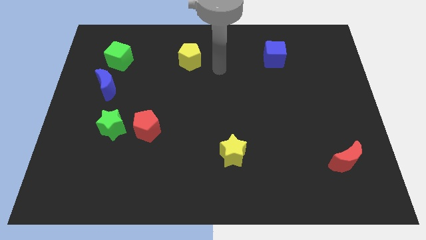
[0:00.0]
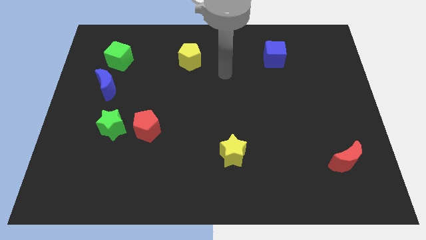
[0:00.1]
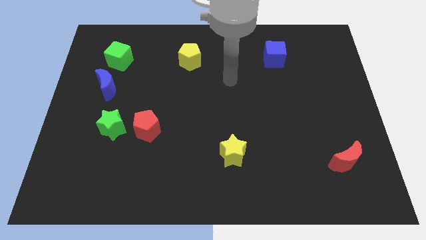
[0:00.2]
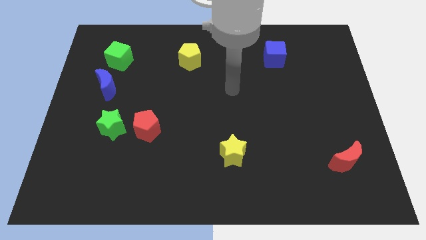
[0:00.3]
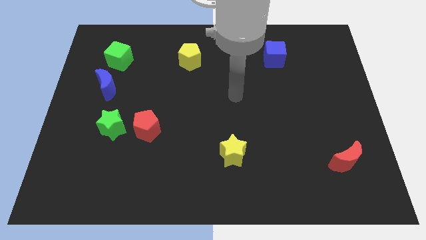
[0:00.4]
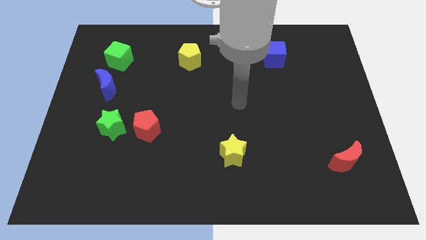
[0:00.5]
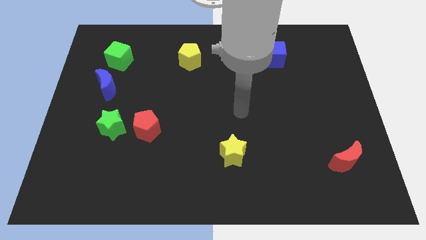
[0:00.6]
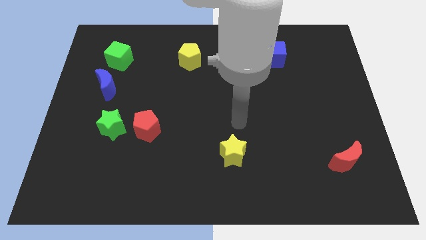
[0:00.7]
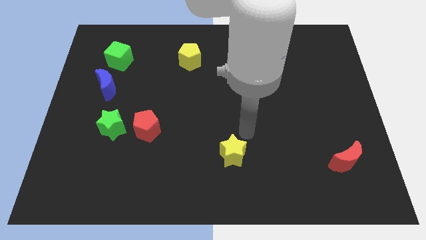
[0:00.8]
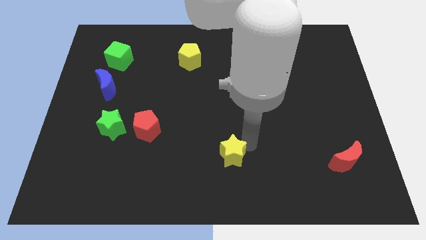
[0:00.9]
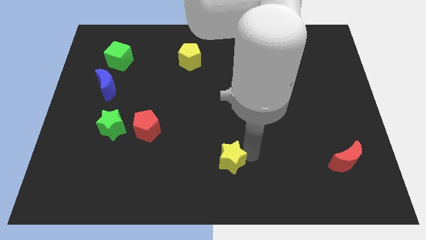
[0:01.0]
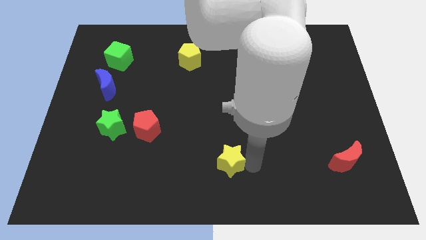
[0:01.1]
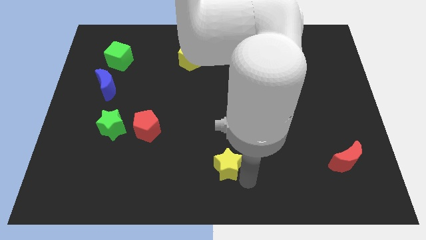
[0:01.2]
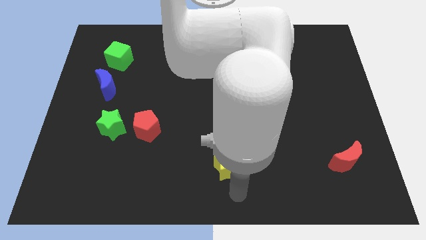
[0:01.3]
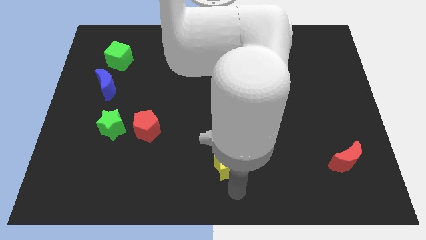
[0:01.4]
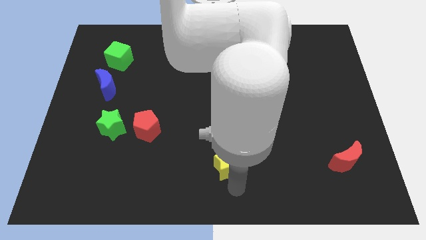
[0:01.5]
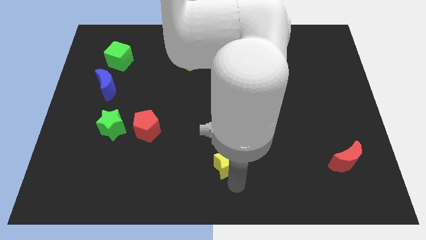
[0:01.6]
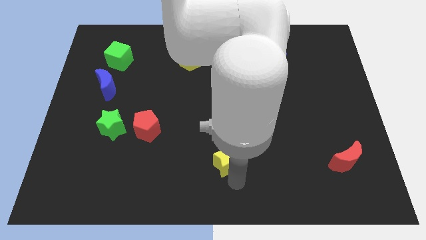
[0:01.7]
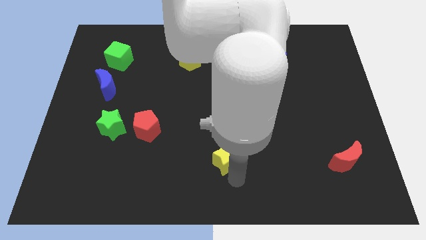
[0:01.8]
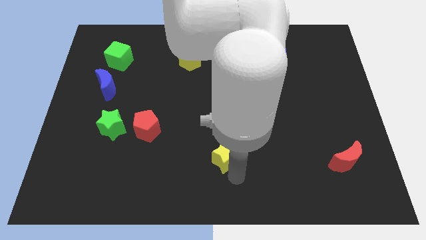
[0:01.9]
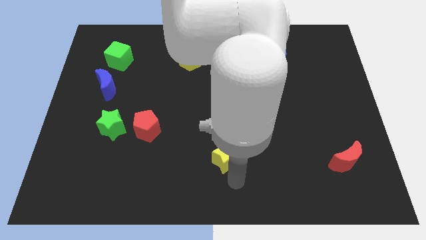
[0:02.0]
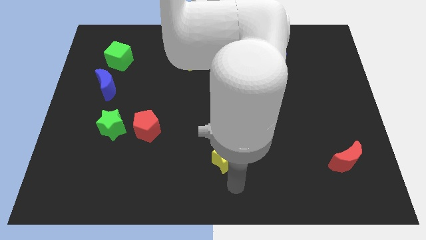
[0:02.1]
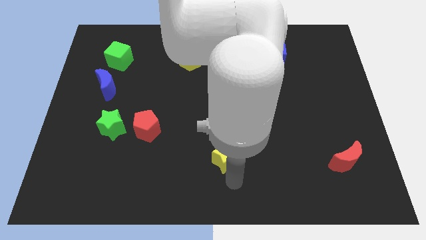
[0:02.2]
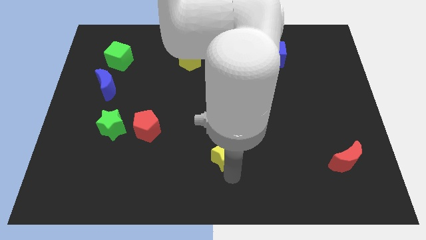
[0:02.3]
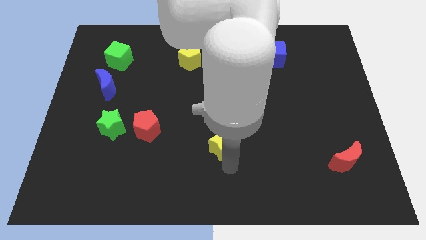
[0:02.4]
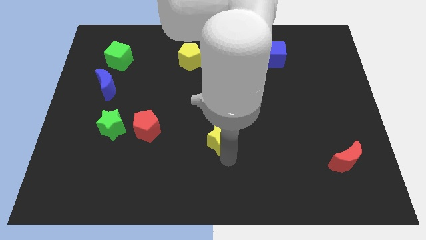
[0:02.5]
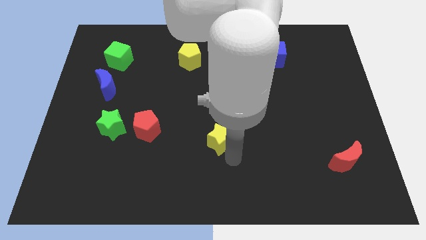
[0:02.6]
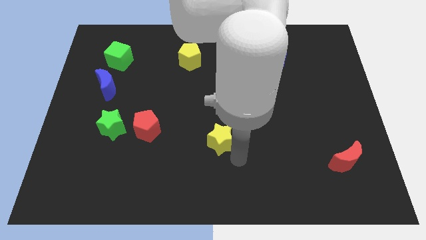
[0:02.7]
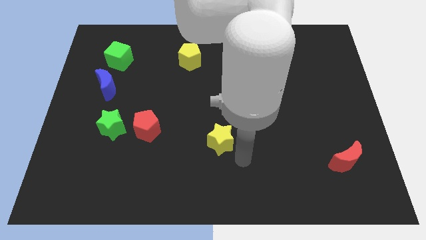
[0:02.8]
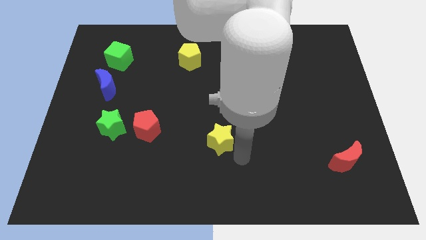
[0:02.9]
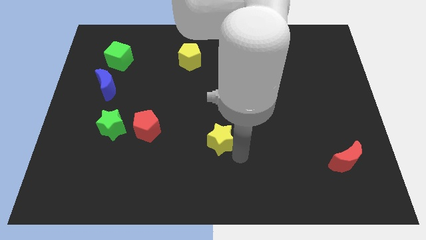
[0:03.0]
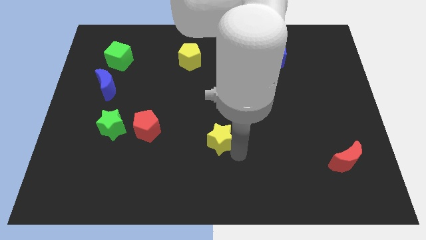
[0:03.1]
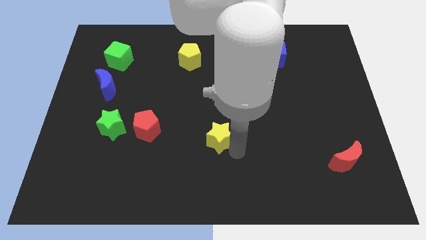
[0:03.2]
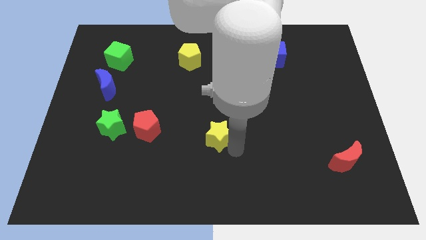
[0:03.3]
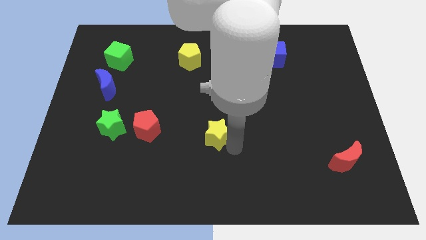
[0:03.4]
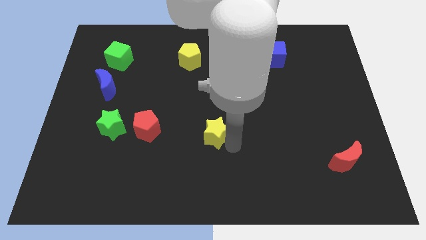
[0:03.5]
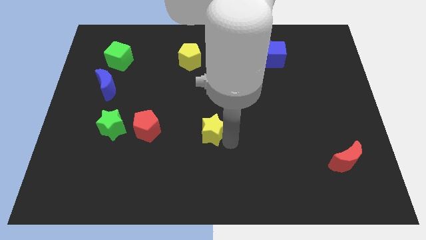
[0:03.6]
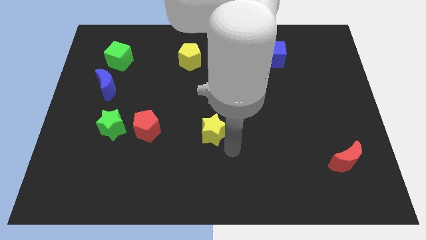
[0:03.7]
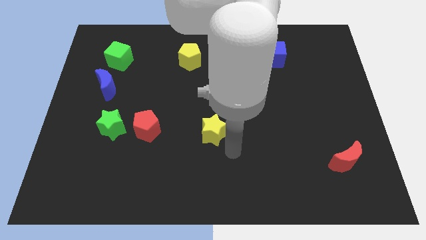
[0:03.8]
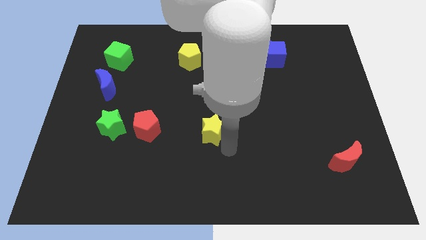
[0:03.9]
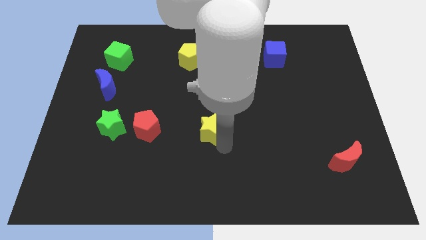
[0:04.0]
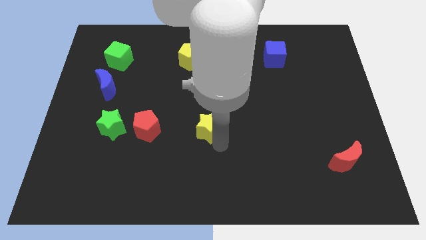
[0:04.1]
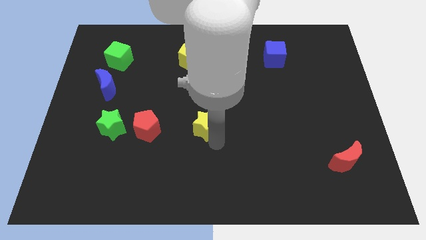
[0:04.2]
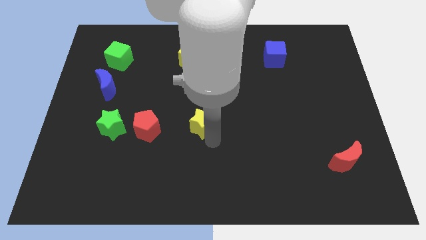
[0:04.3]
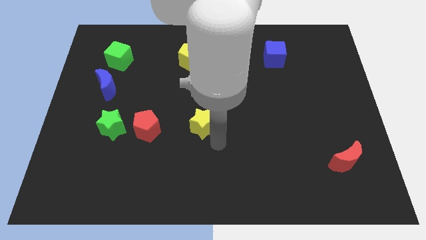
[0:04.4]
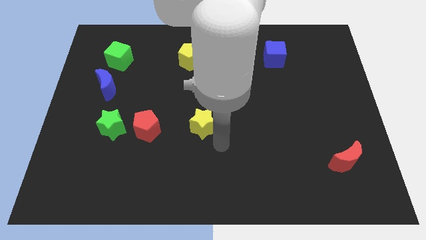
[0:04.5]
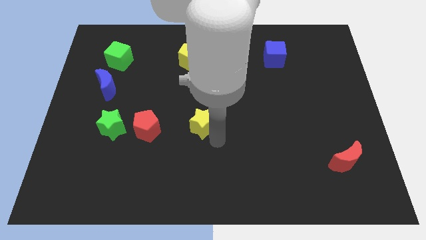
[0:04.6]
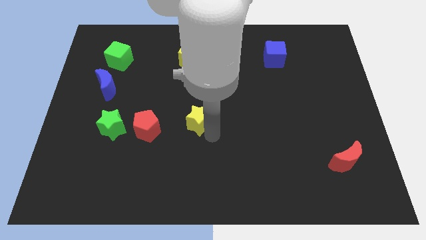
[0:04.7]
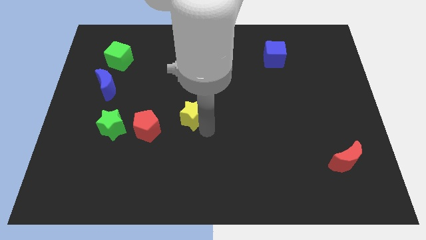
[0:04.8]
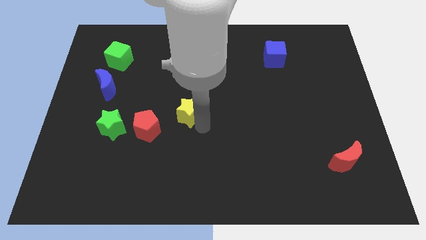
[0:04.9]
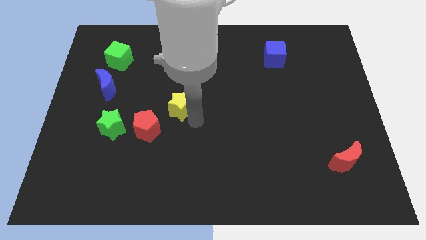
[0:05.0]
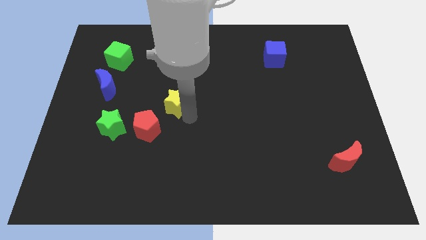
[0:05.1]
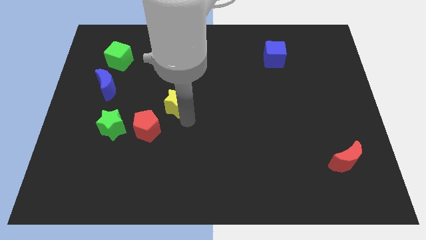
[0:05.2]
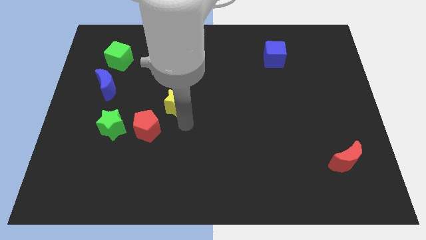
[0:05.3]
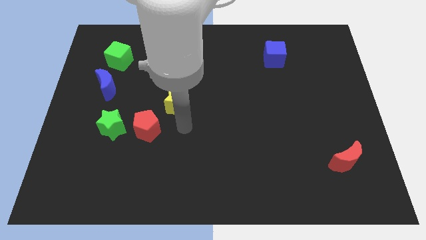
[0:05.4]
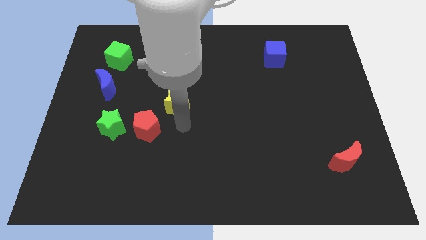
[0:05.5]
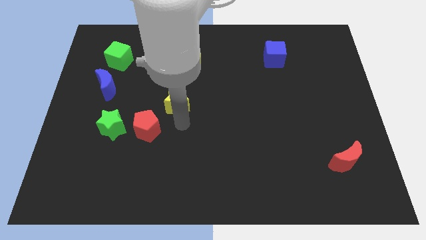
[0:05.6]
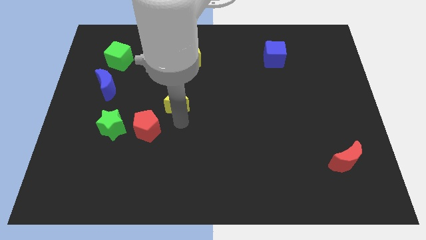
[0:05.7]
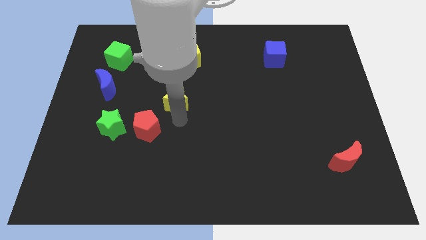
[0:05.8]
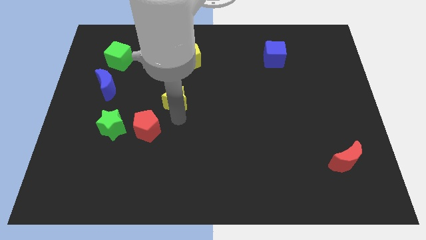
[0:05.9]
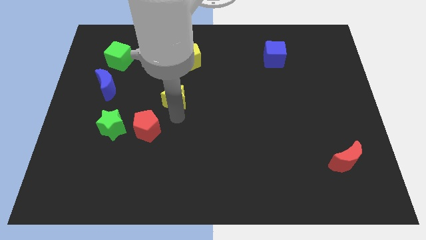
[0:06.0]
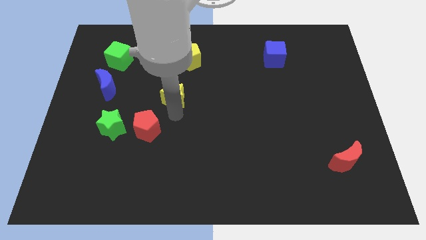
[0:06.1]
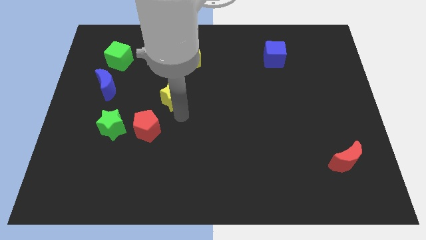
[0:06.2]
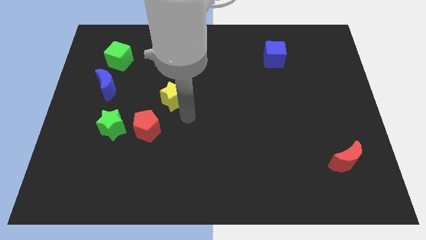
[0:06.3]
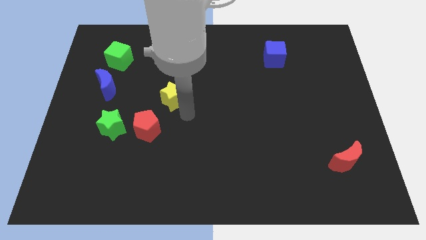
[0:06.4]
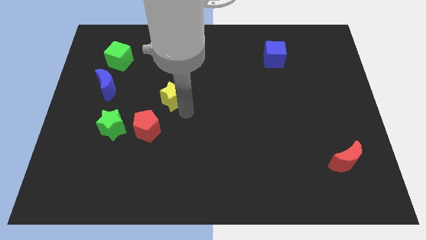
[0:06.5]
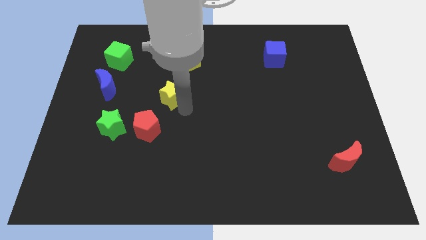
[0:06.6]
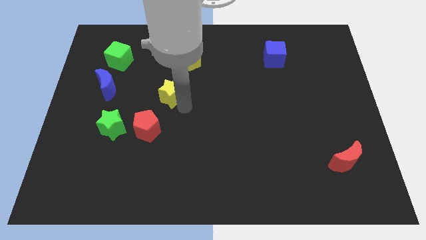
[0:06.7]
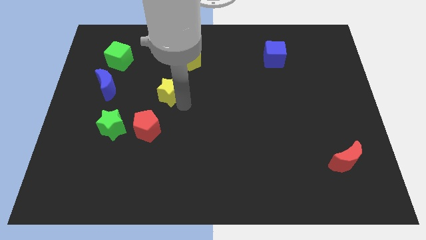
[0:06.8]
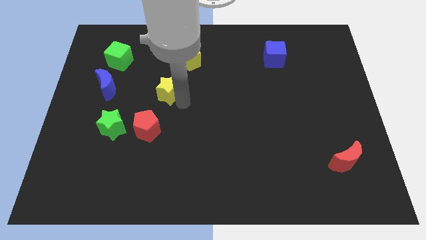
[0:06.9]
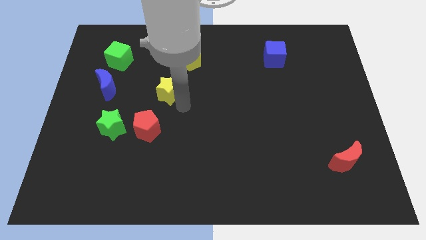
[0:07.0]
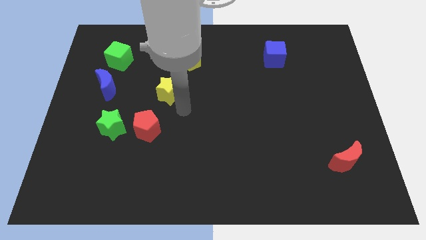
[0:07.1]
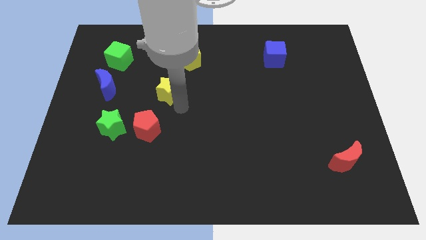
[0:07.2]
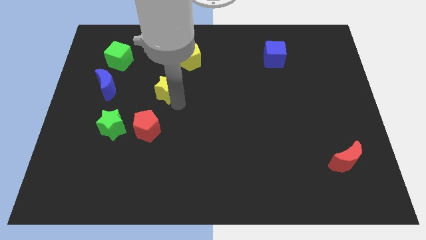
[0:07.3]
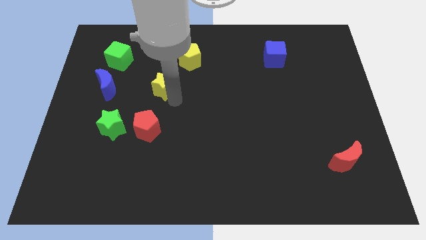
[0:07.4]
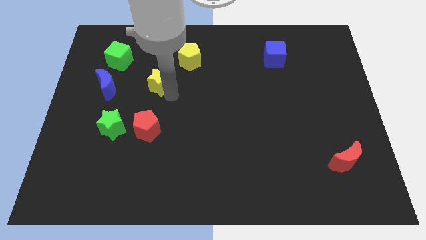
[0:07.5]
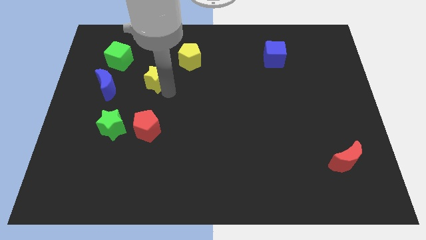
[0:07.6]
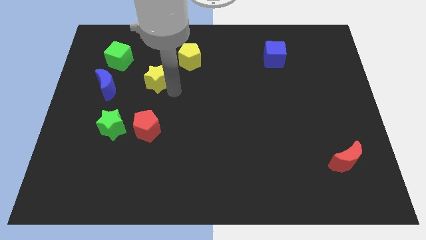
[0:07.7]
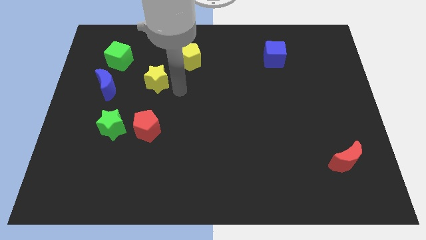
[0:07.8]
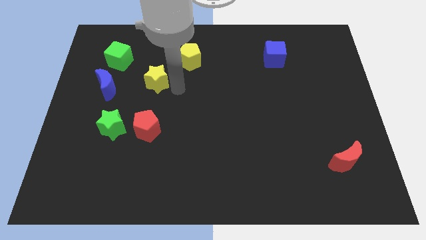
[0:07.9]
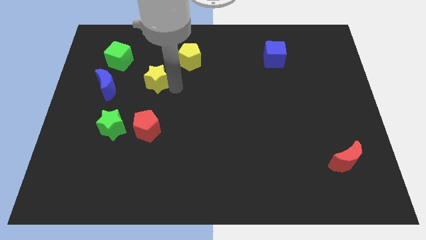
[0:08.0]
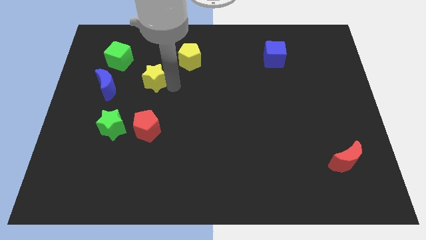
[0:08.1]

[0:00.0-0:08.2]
slide the yellow star to the bottom right of the green cube
